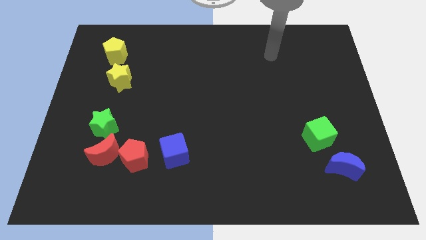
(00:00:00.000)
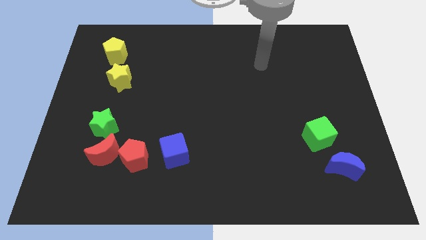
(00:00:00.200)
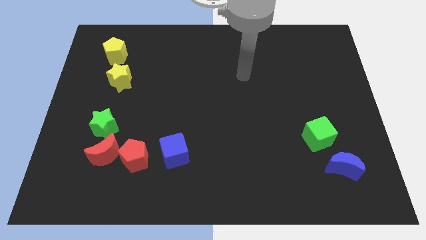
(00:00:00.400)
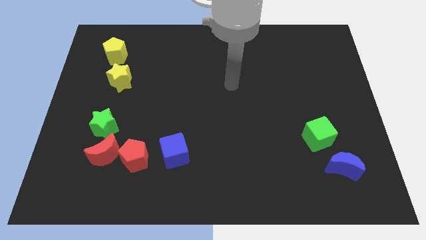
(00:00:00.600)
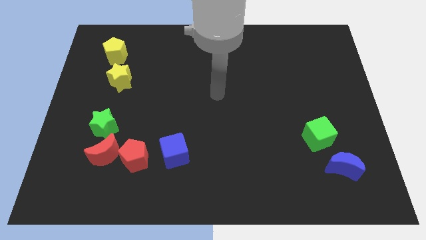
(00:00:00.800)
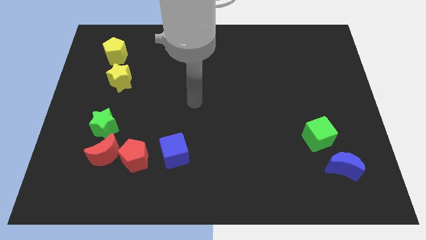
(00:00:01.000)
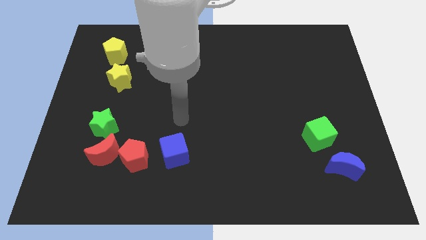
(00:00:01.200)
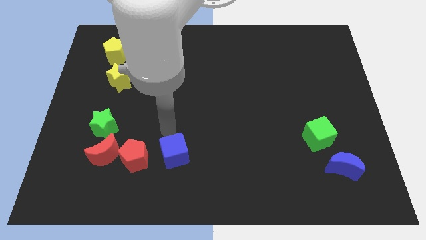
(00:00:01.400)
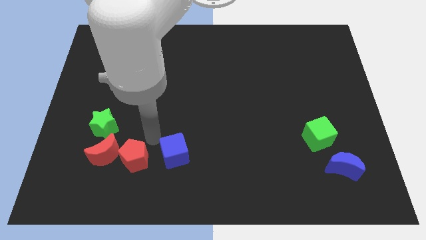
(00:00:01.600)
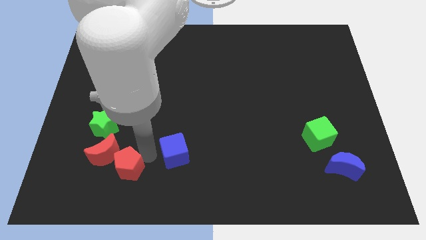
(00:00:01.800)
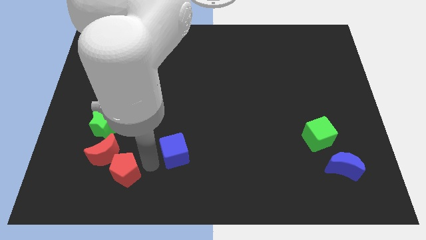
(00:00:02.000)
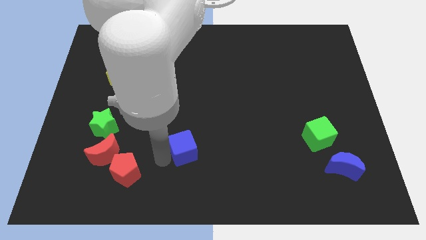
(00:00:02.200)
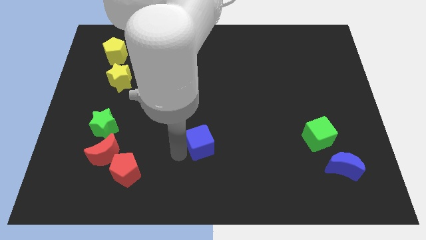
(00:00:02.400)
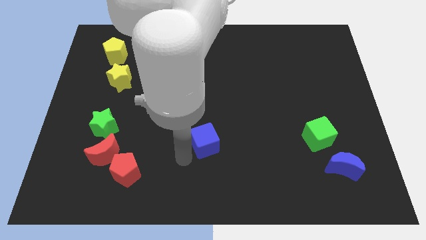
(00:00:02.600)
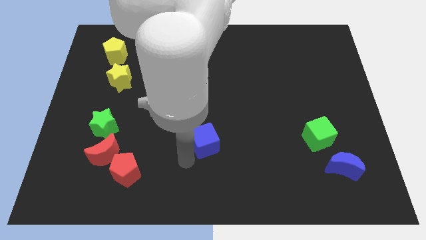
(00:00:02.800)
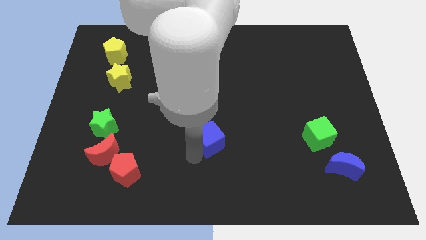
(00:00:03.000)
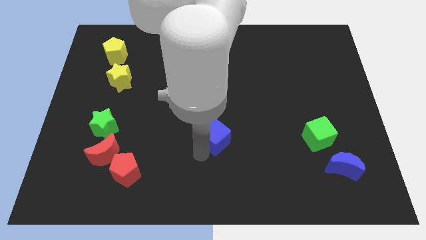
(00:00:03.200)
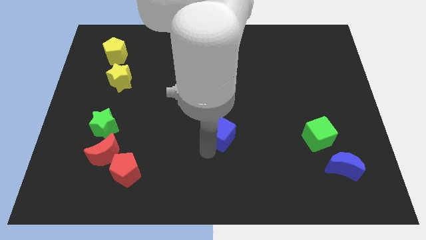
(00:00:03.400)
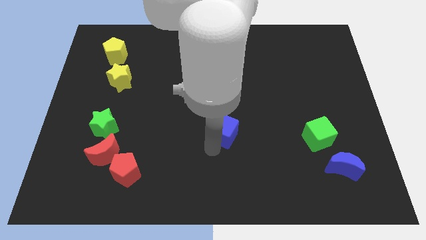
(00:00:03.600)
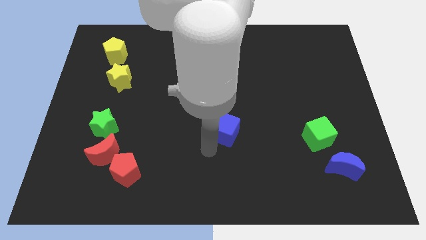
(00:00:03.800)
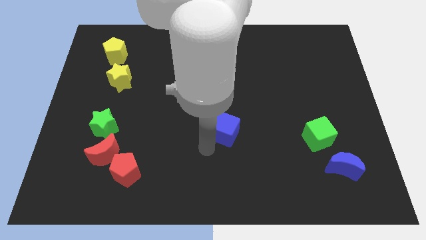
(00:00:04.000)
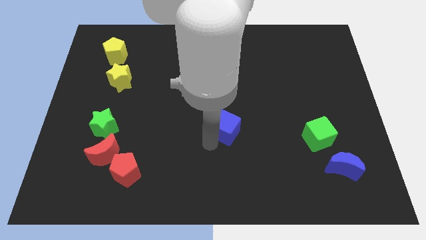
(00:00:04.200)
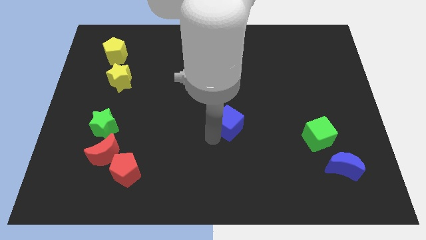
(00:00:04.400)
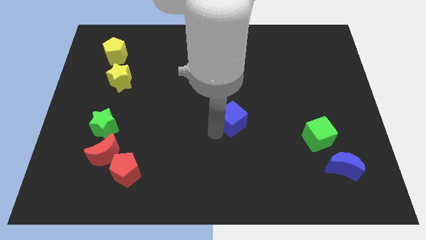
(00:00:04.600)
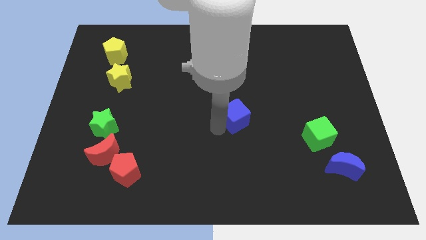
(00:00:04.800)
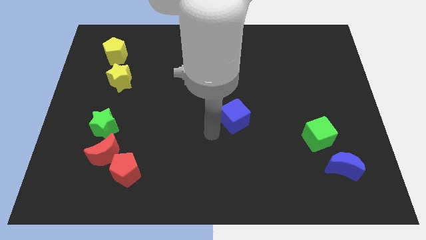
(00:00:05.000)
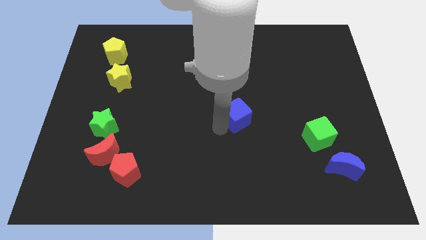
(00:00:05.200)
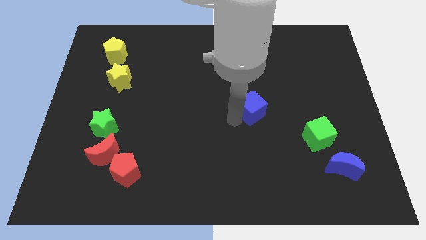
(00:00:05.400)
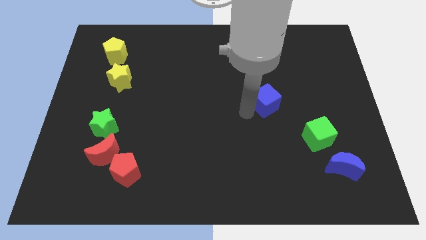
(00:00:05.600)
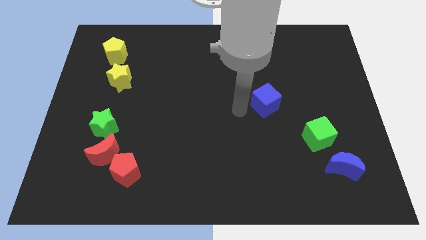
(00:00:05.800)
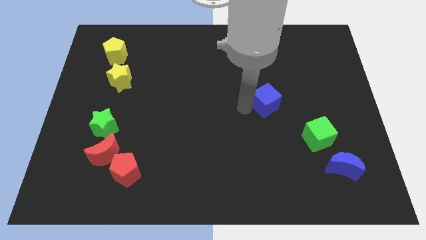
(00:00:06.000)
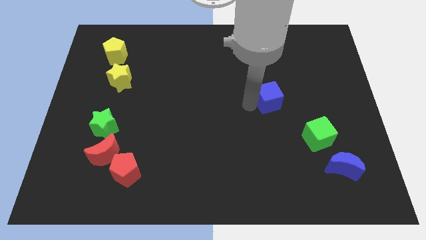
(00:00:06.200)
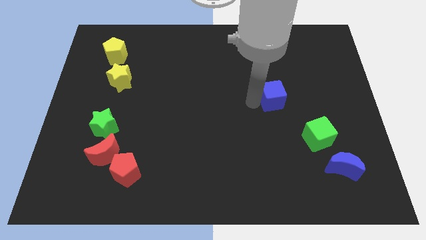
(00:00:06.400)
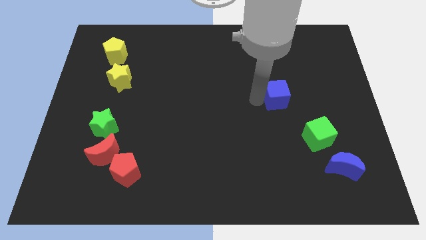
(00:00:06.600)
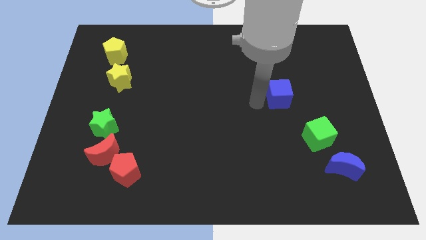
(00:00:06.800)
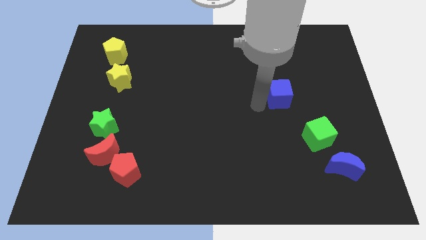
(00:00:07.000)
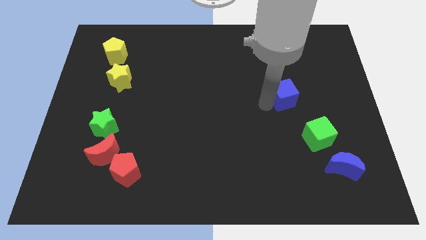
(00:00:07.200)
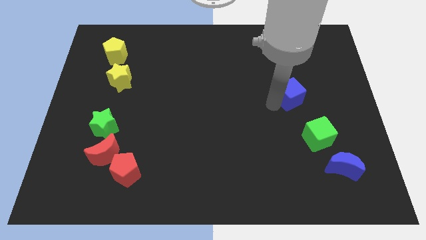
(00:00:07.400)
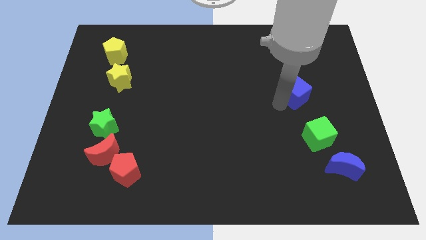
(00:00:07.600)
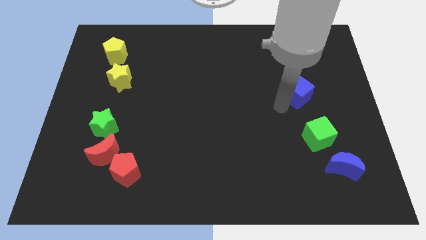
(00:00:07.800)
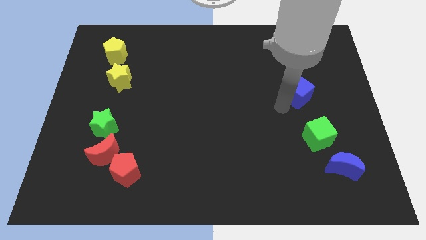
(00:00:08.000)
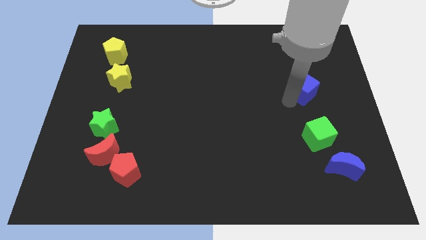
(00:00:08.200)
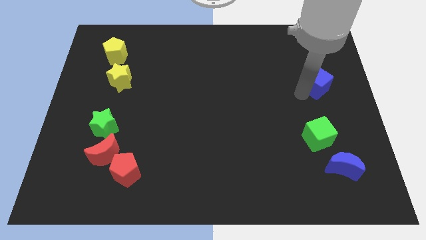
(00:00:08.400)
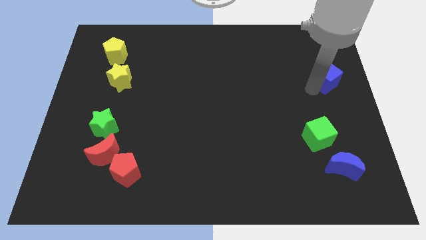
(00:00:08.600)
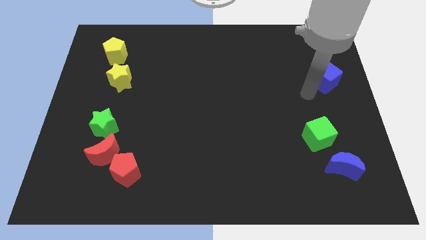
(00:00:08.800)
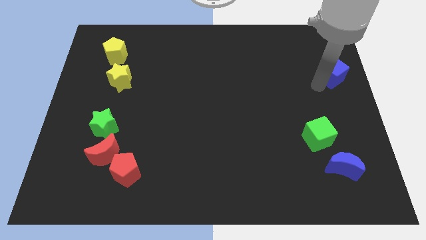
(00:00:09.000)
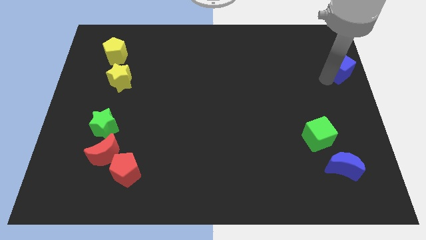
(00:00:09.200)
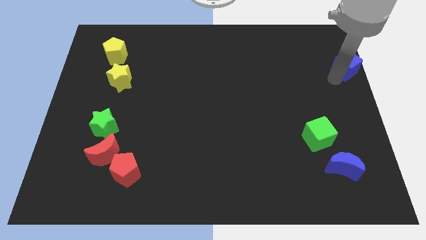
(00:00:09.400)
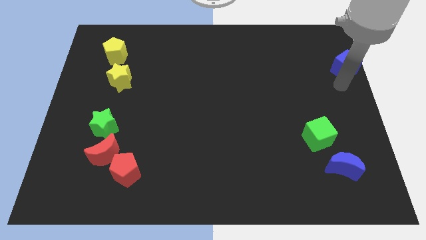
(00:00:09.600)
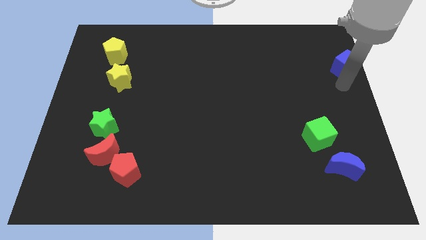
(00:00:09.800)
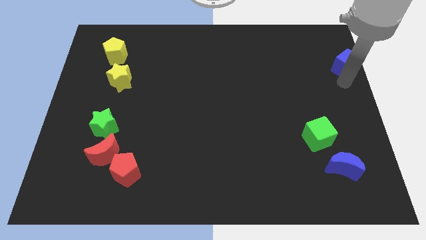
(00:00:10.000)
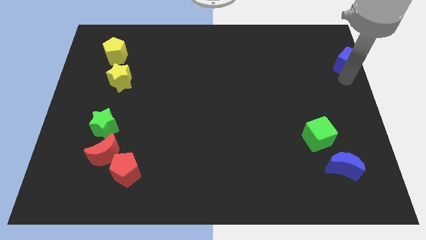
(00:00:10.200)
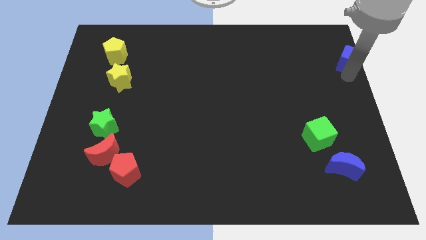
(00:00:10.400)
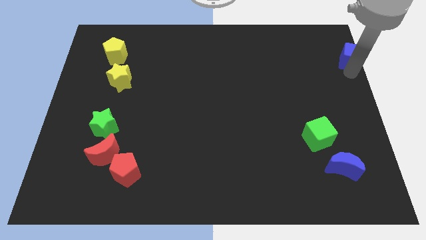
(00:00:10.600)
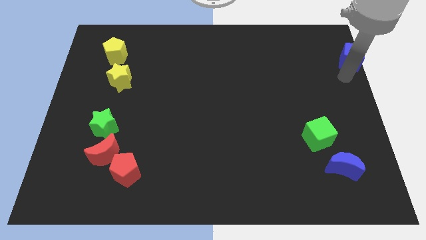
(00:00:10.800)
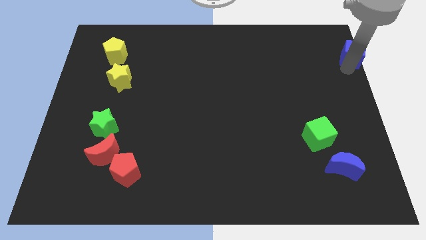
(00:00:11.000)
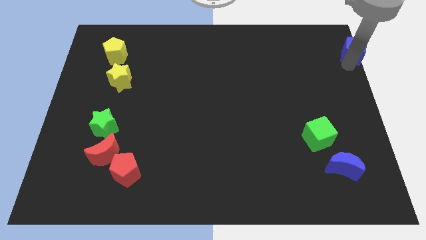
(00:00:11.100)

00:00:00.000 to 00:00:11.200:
move the blue cube to the top right of the board

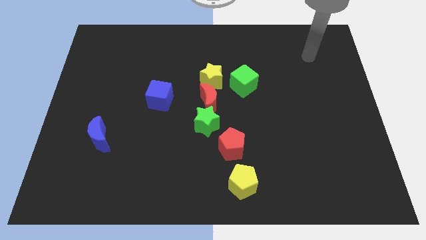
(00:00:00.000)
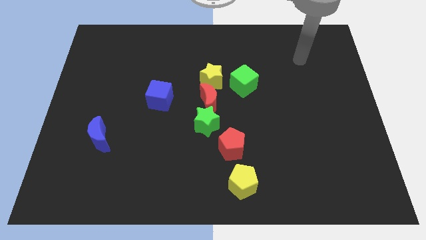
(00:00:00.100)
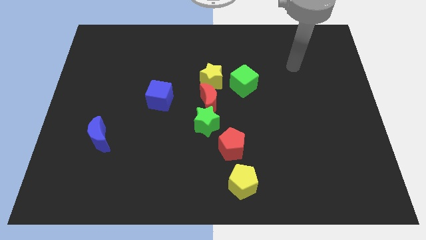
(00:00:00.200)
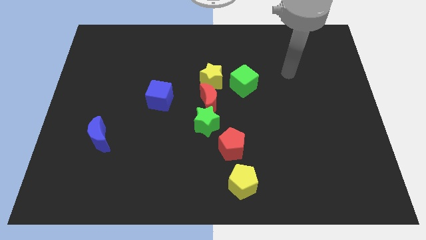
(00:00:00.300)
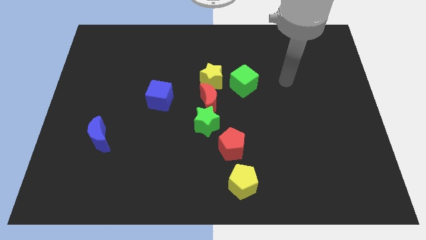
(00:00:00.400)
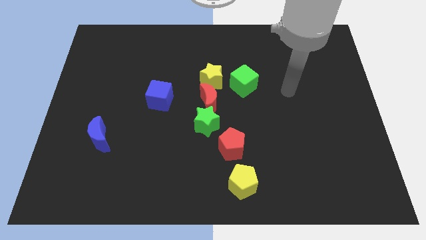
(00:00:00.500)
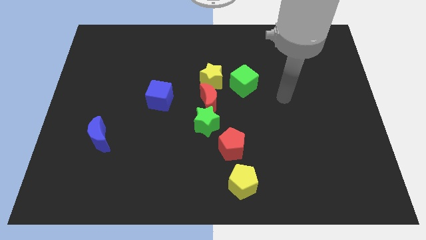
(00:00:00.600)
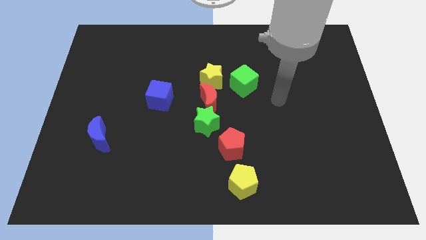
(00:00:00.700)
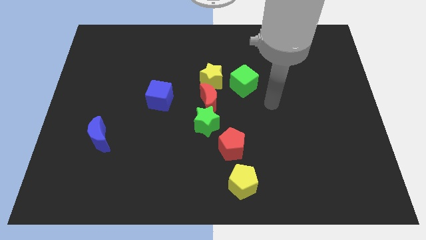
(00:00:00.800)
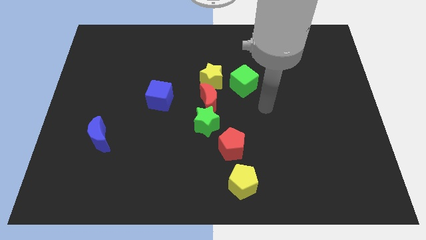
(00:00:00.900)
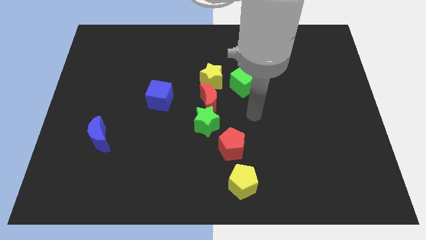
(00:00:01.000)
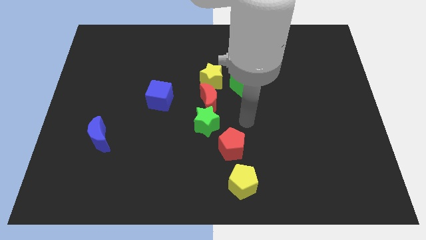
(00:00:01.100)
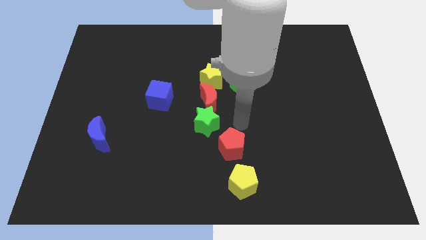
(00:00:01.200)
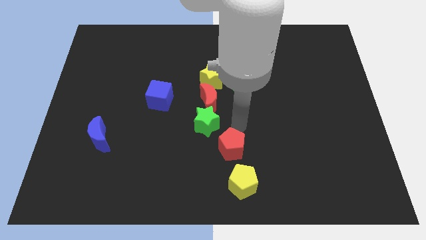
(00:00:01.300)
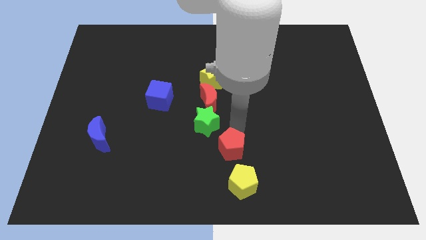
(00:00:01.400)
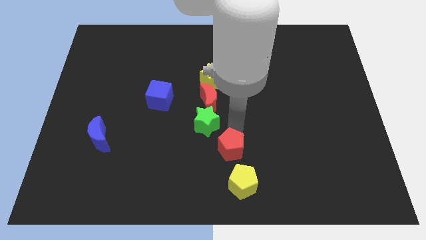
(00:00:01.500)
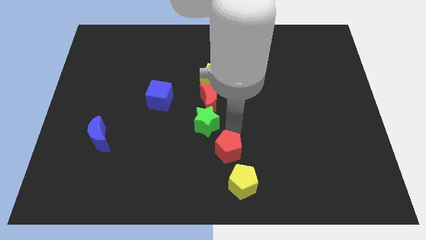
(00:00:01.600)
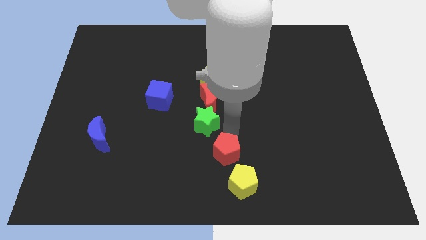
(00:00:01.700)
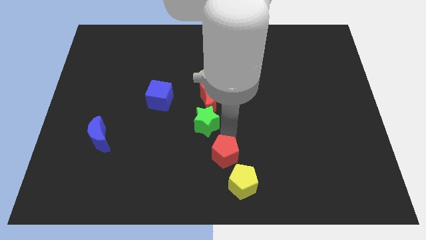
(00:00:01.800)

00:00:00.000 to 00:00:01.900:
put the red pentagon to the bottom side
